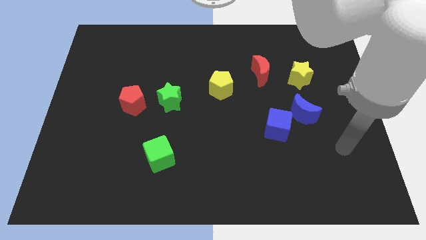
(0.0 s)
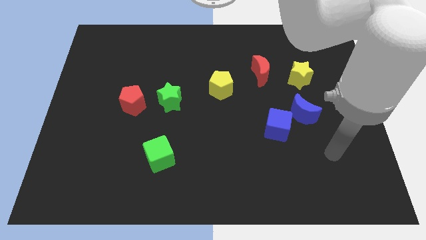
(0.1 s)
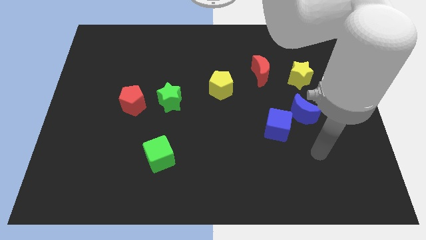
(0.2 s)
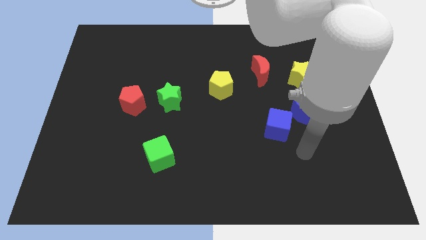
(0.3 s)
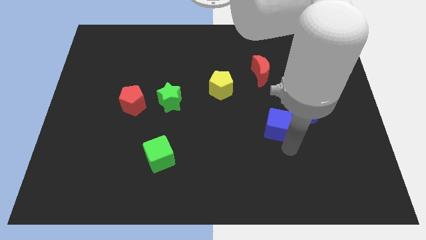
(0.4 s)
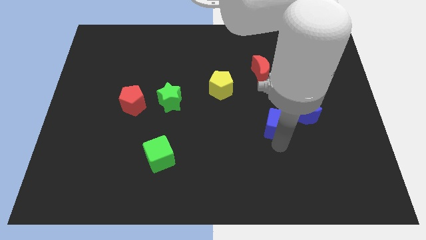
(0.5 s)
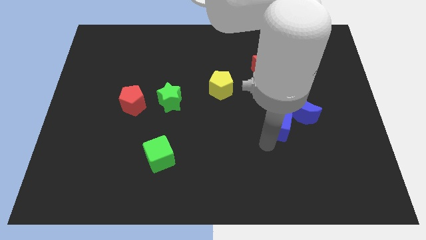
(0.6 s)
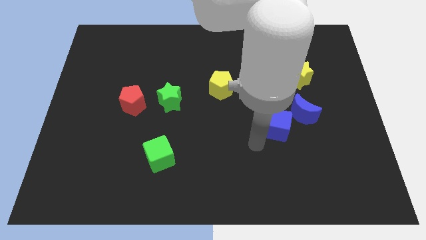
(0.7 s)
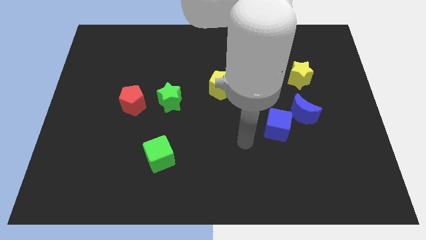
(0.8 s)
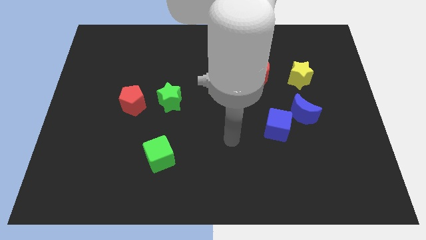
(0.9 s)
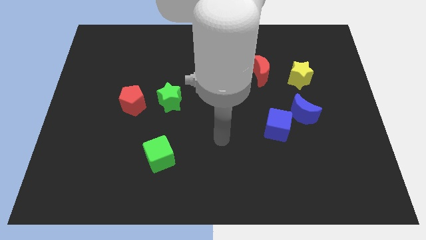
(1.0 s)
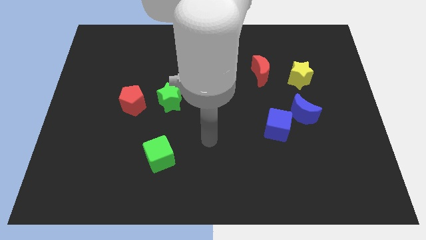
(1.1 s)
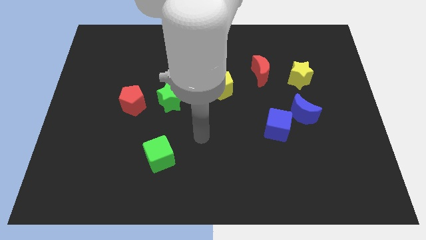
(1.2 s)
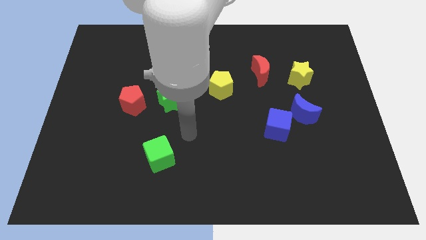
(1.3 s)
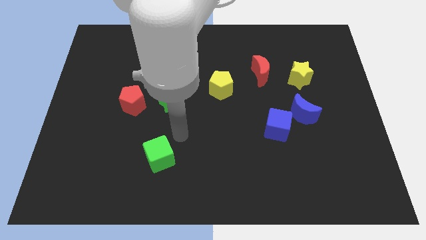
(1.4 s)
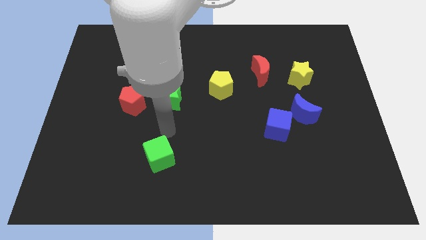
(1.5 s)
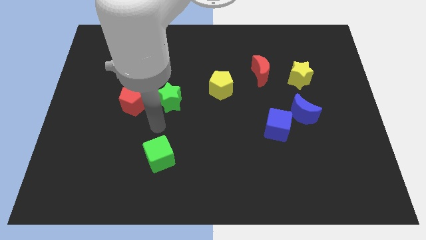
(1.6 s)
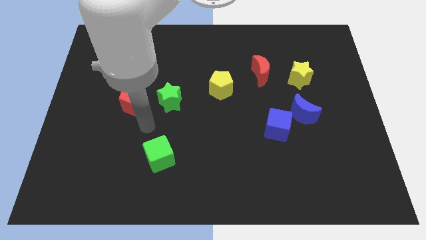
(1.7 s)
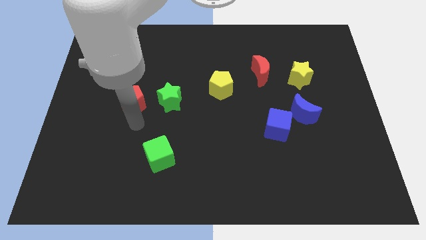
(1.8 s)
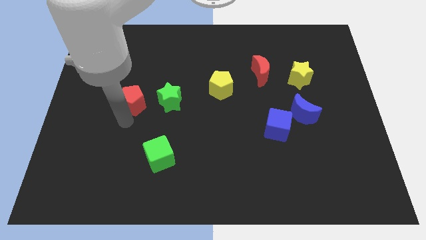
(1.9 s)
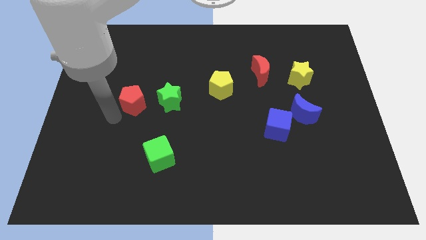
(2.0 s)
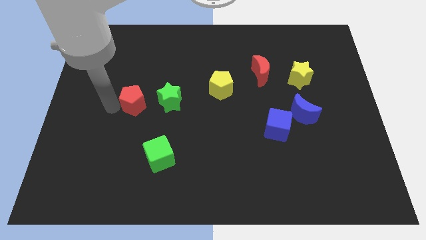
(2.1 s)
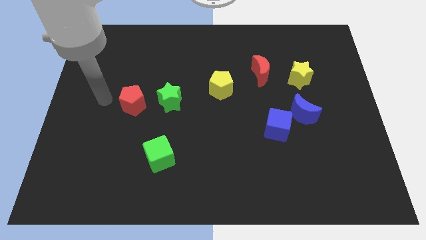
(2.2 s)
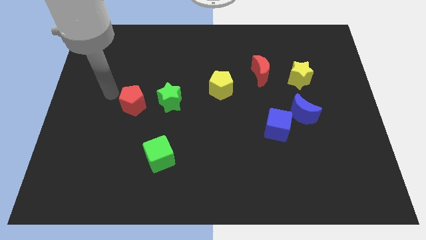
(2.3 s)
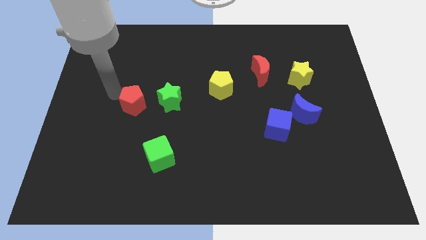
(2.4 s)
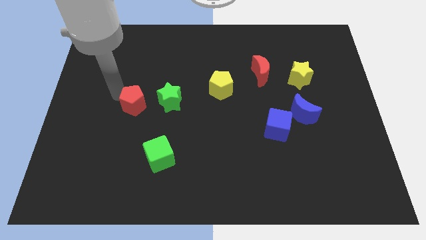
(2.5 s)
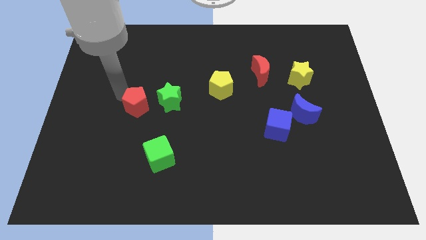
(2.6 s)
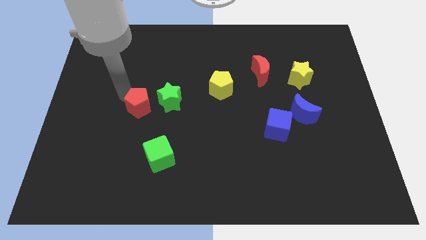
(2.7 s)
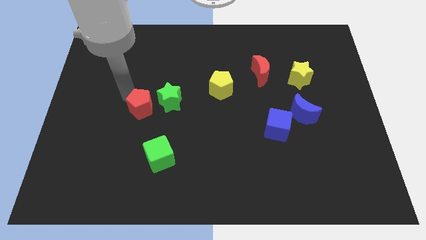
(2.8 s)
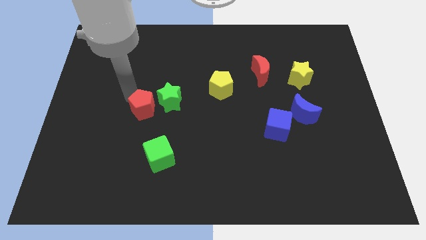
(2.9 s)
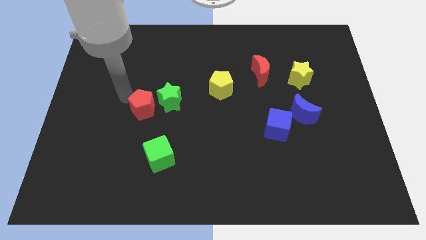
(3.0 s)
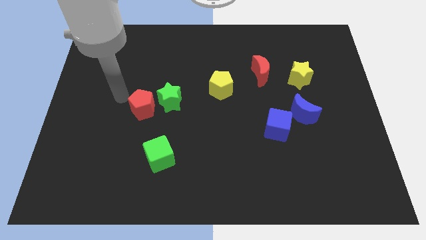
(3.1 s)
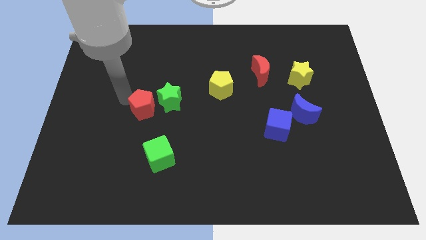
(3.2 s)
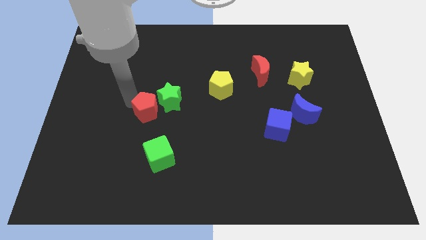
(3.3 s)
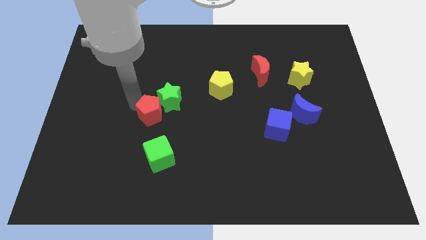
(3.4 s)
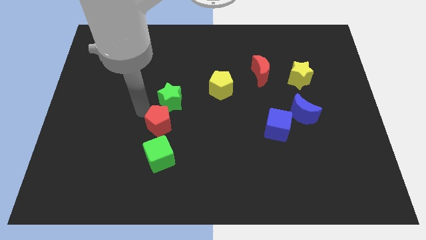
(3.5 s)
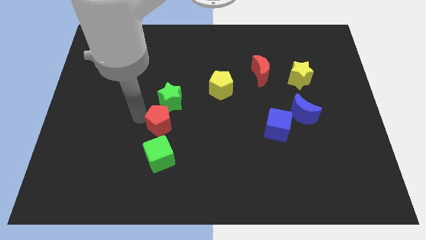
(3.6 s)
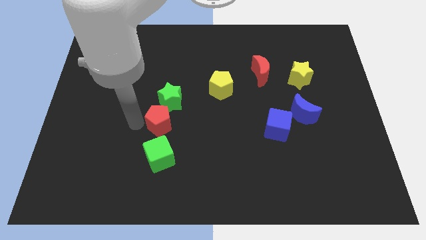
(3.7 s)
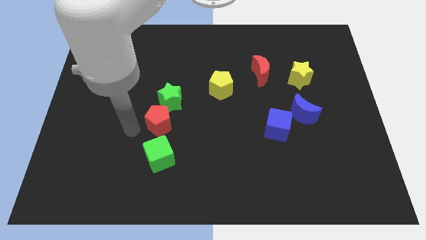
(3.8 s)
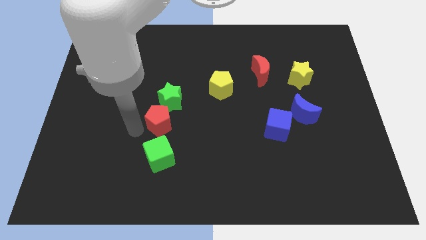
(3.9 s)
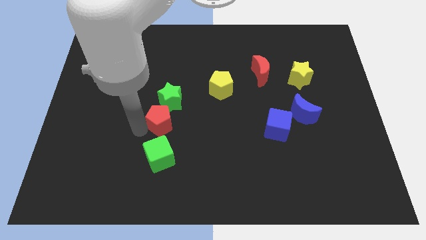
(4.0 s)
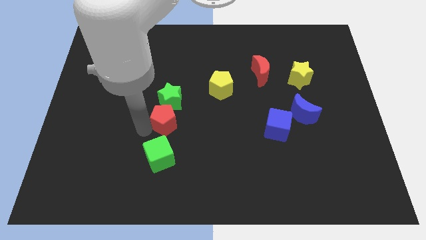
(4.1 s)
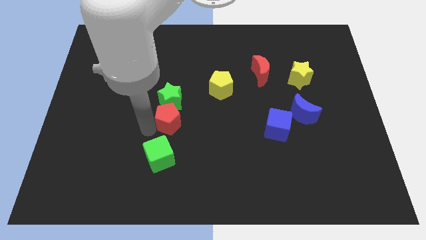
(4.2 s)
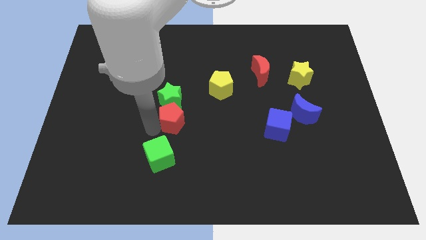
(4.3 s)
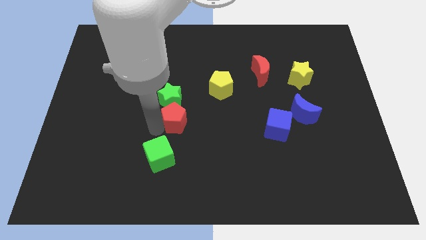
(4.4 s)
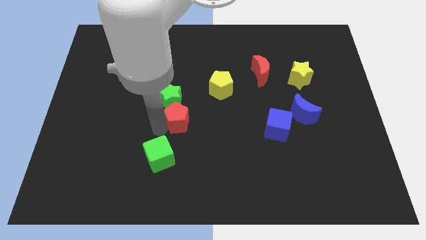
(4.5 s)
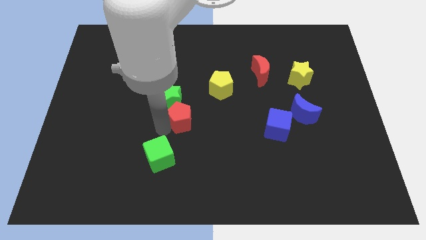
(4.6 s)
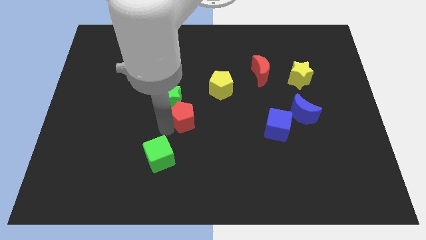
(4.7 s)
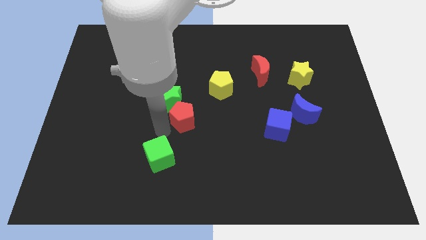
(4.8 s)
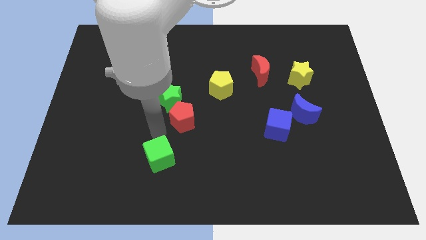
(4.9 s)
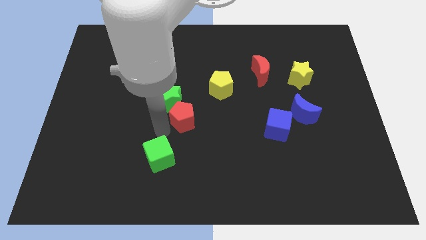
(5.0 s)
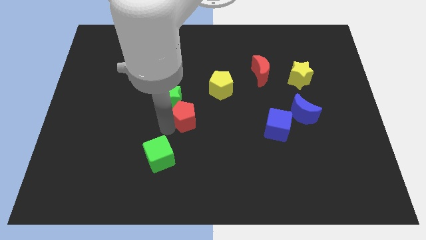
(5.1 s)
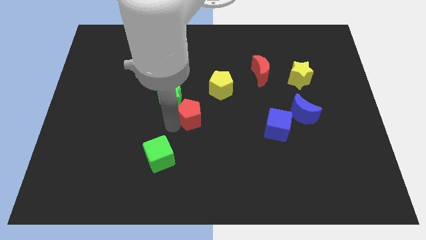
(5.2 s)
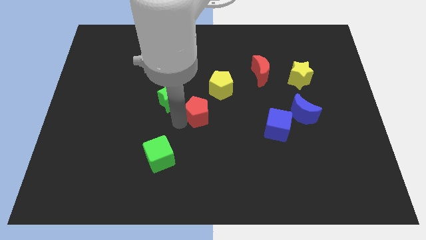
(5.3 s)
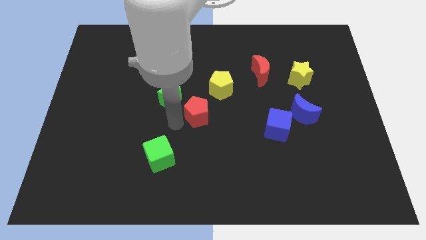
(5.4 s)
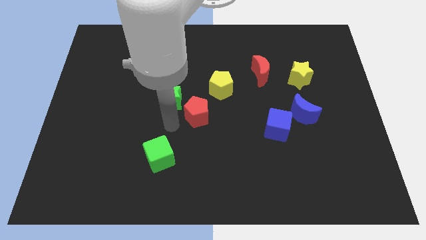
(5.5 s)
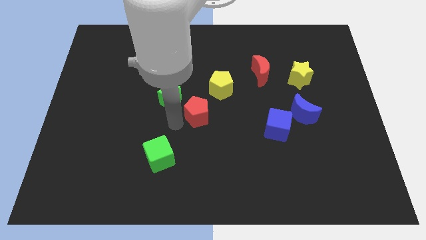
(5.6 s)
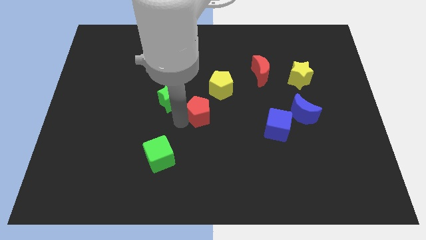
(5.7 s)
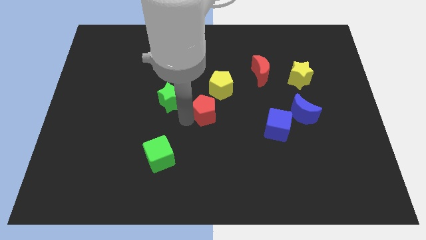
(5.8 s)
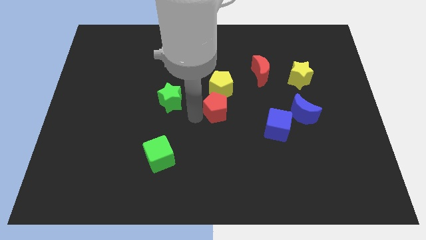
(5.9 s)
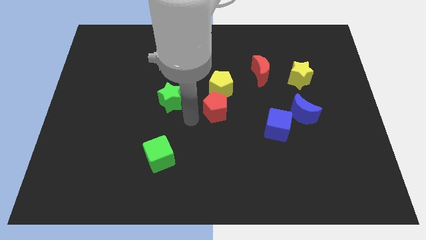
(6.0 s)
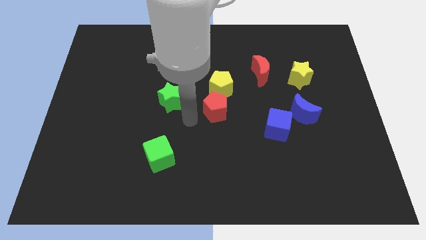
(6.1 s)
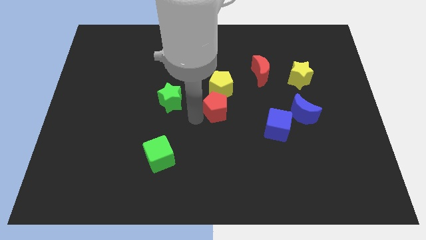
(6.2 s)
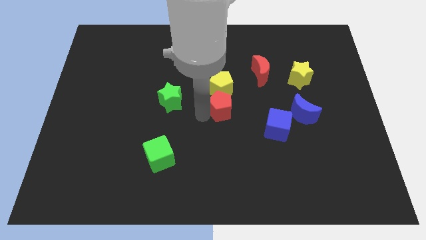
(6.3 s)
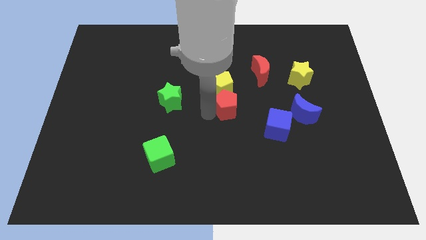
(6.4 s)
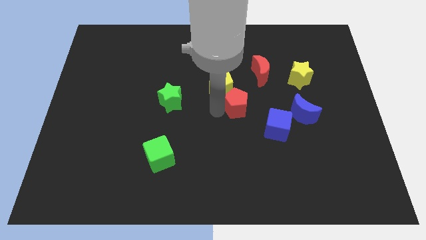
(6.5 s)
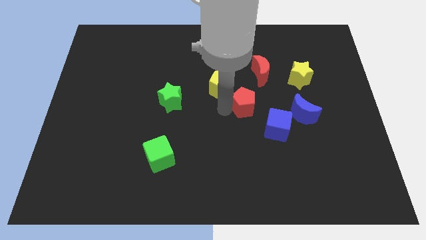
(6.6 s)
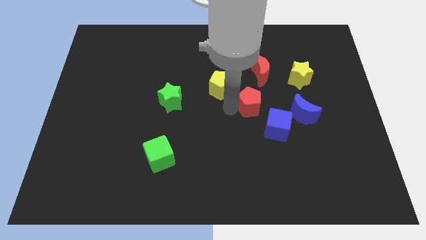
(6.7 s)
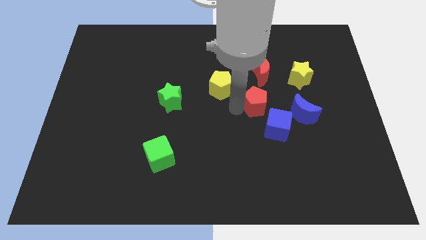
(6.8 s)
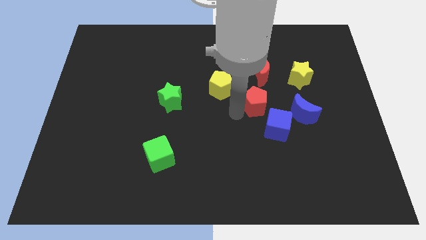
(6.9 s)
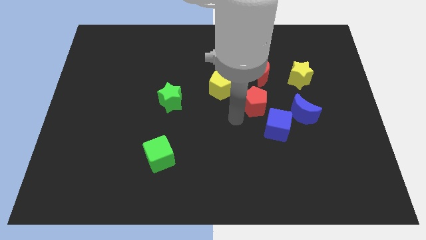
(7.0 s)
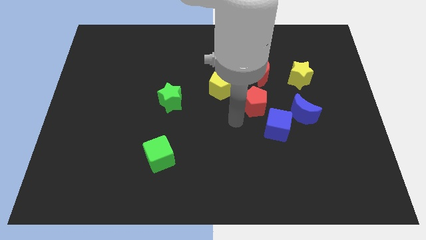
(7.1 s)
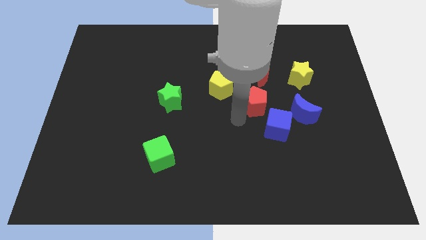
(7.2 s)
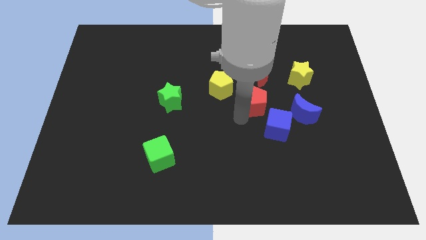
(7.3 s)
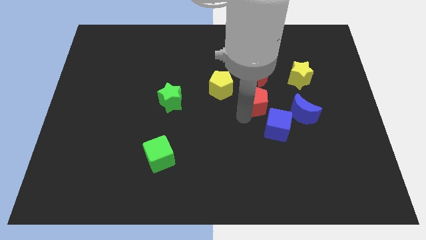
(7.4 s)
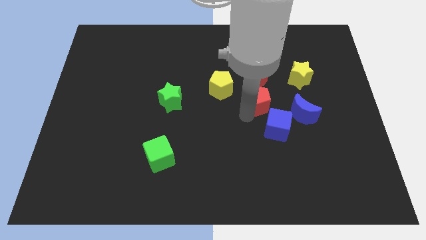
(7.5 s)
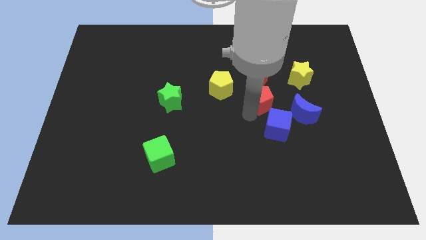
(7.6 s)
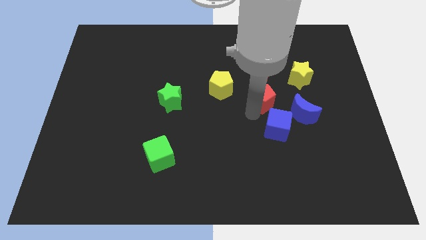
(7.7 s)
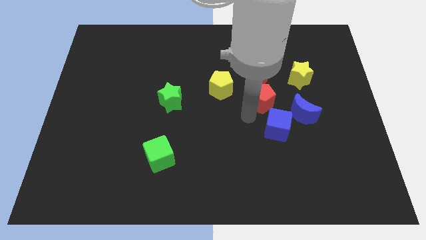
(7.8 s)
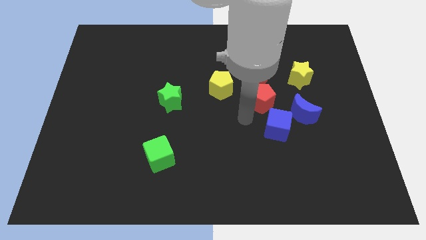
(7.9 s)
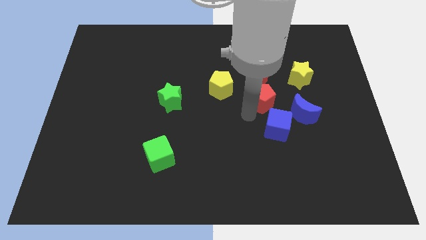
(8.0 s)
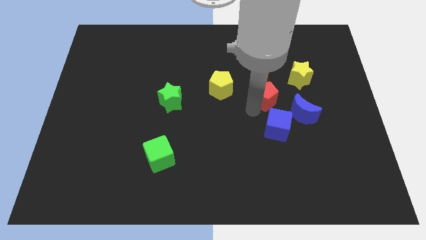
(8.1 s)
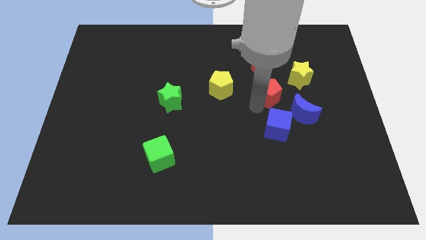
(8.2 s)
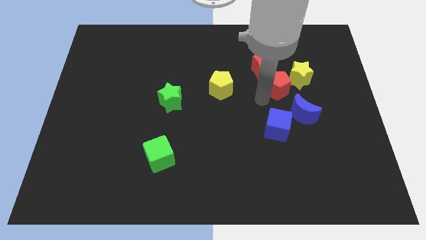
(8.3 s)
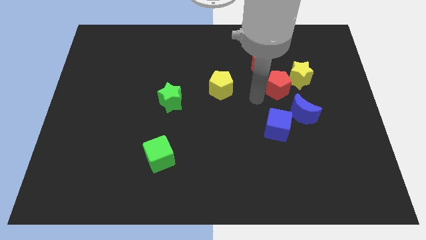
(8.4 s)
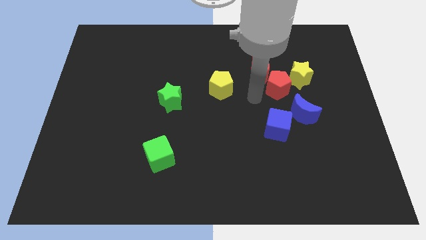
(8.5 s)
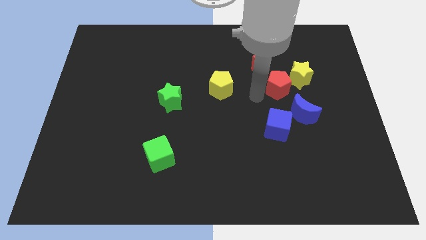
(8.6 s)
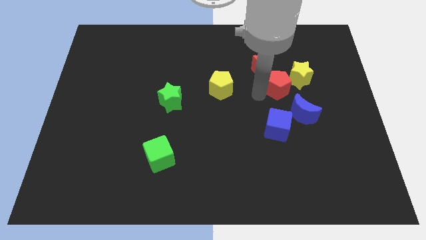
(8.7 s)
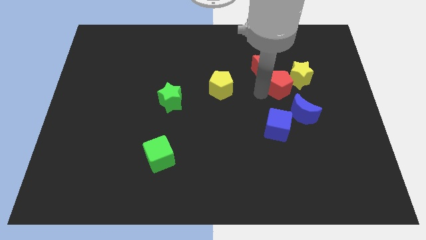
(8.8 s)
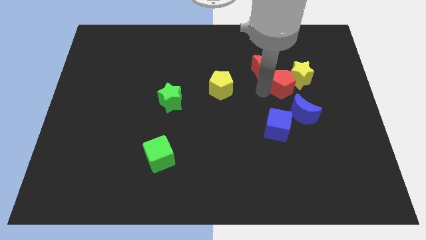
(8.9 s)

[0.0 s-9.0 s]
push the red pentagon close to the yellow star
